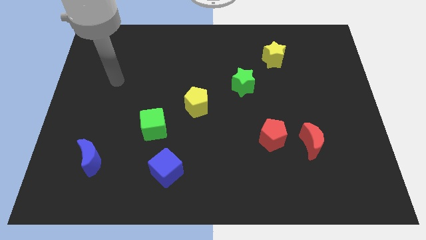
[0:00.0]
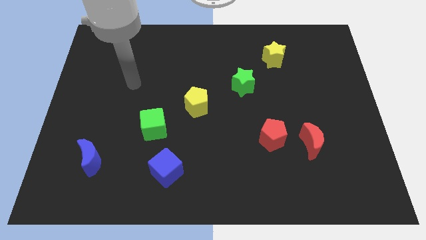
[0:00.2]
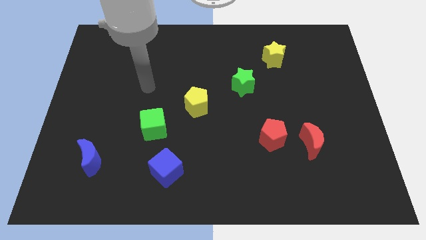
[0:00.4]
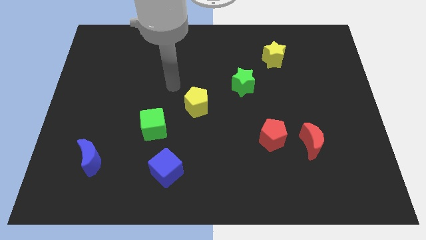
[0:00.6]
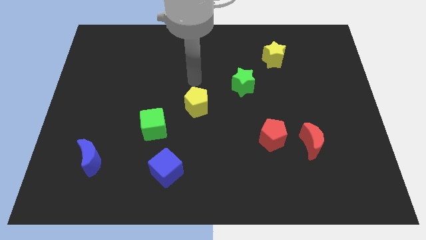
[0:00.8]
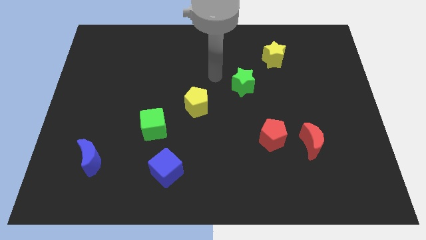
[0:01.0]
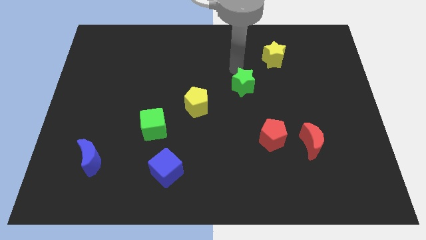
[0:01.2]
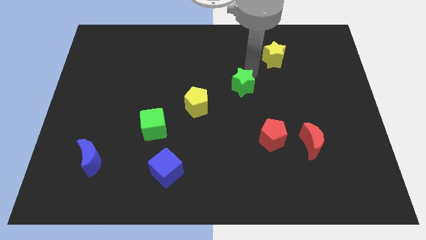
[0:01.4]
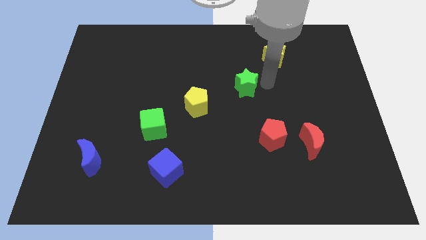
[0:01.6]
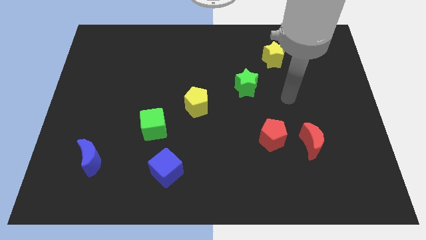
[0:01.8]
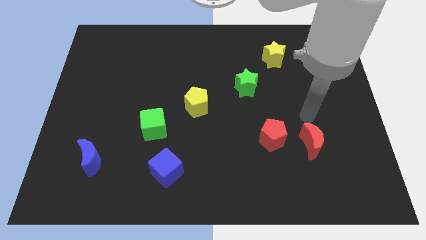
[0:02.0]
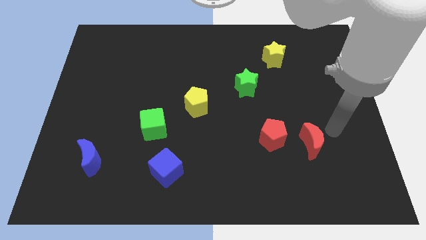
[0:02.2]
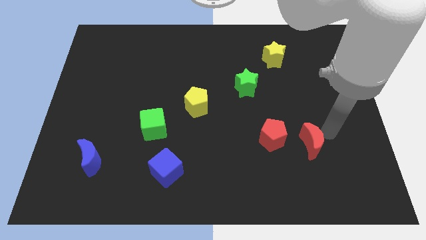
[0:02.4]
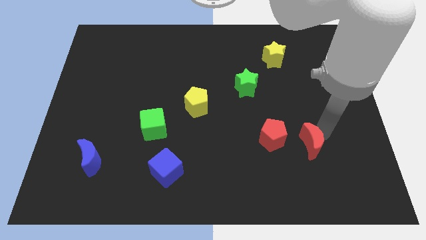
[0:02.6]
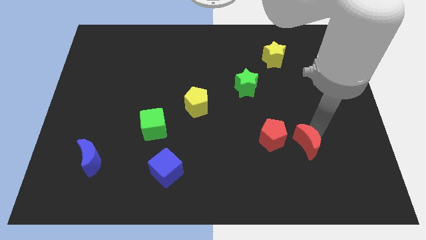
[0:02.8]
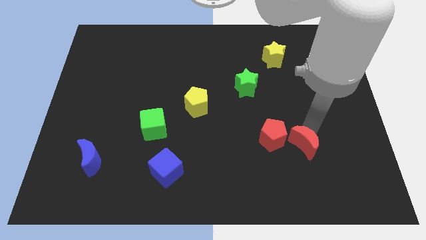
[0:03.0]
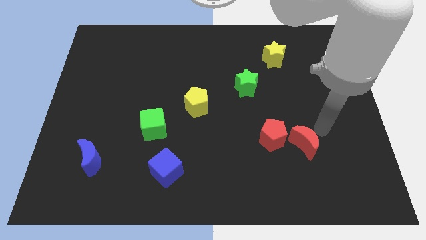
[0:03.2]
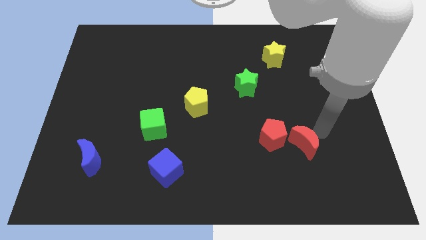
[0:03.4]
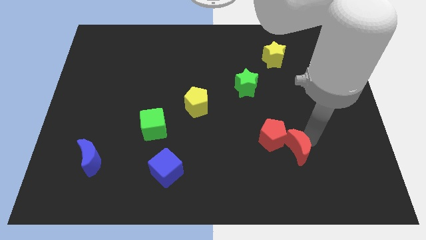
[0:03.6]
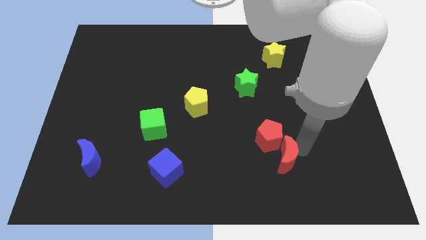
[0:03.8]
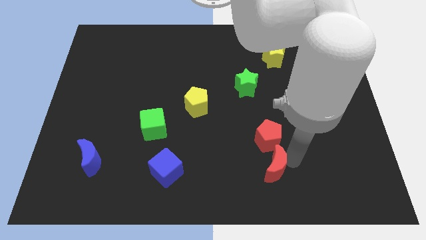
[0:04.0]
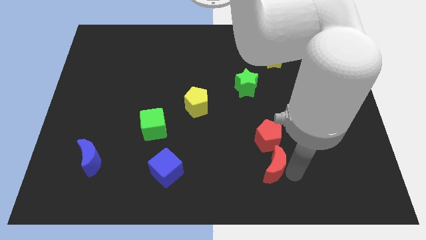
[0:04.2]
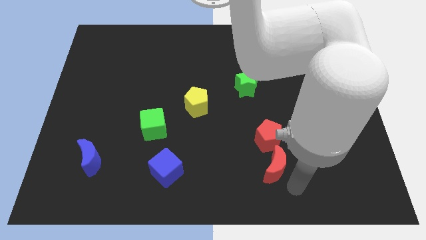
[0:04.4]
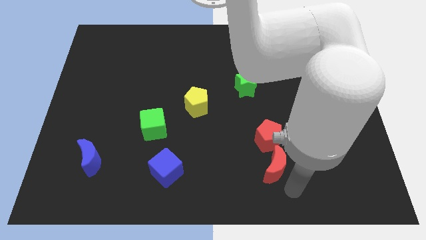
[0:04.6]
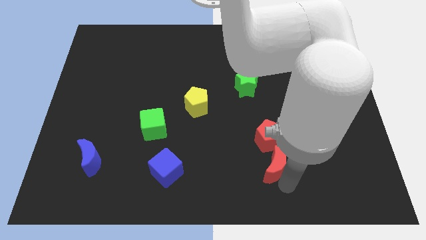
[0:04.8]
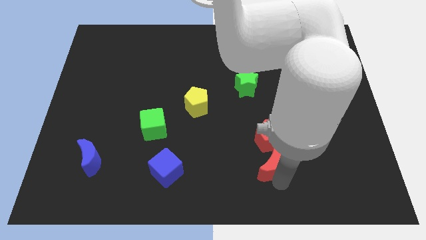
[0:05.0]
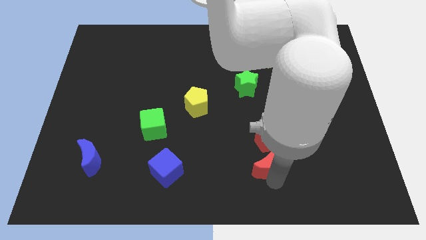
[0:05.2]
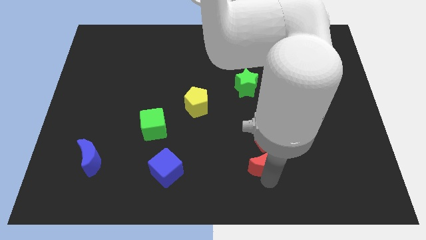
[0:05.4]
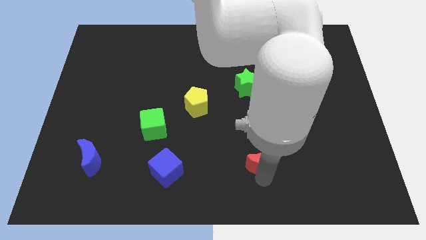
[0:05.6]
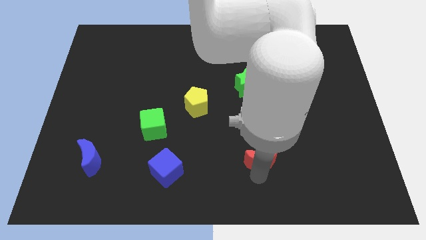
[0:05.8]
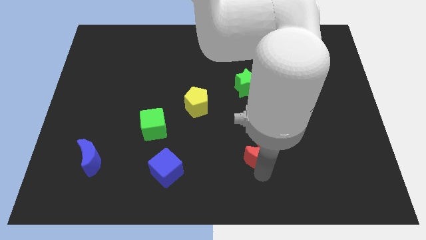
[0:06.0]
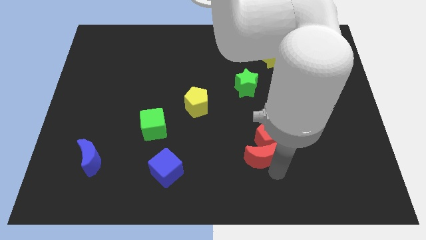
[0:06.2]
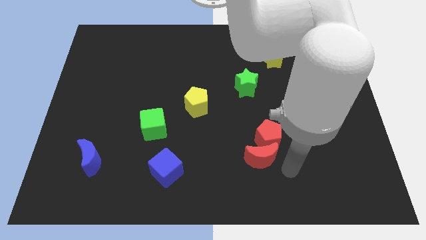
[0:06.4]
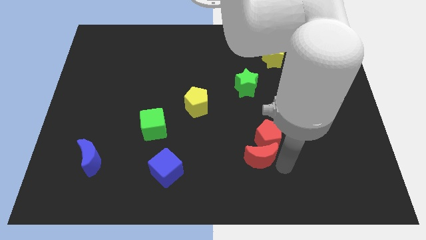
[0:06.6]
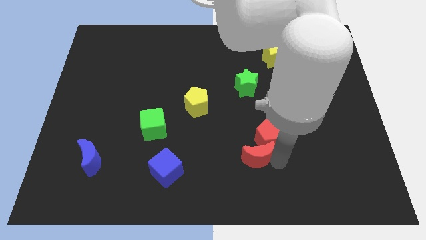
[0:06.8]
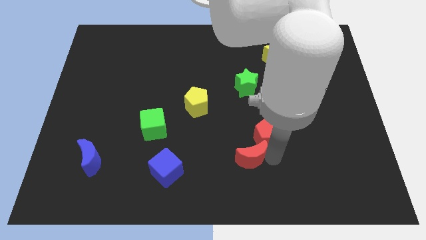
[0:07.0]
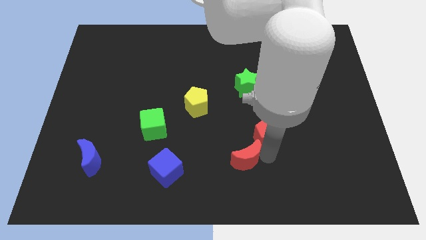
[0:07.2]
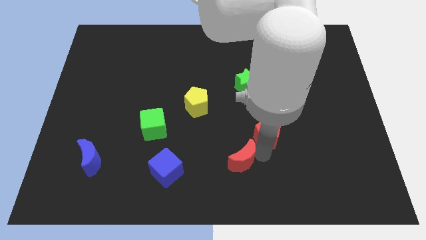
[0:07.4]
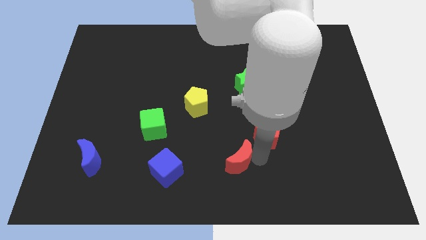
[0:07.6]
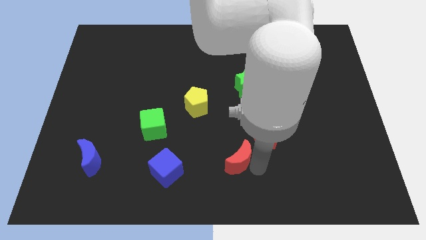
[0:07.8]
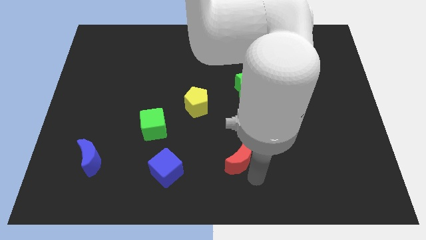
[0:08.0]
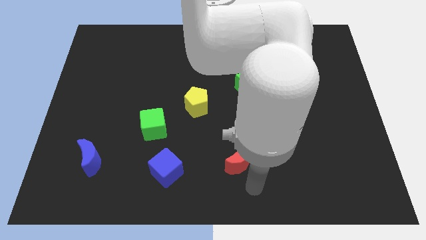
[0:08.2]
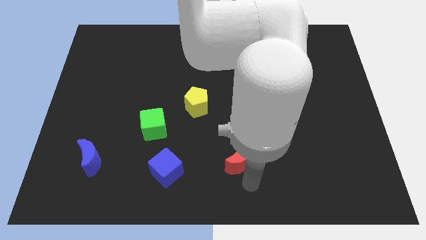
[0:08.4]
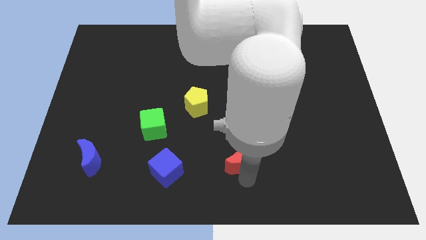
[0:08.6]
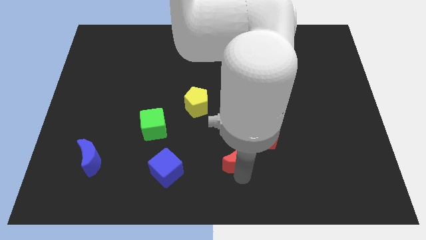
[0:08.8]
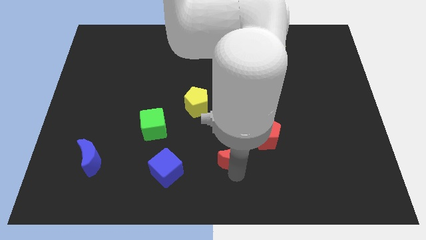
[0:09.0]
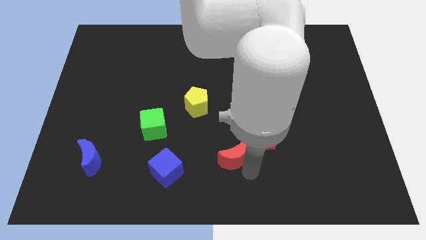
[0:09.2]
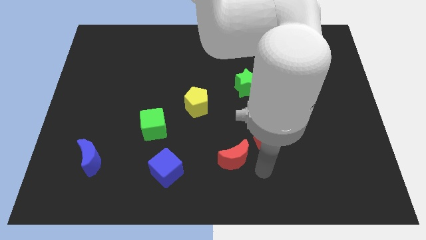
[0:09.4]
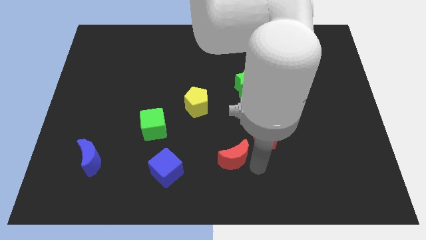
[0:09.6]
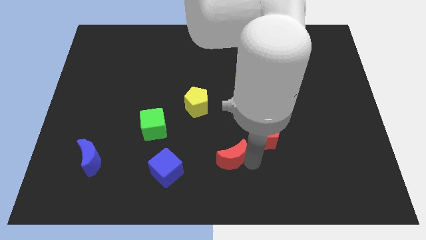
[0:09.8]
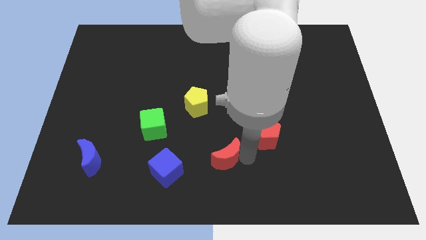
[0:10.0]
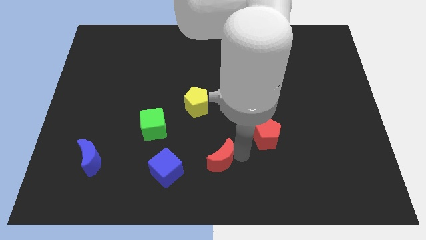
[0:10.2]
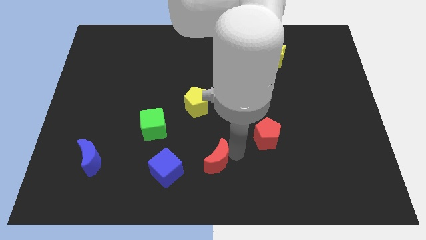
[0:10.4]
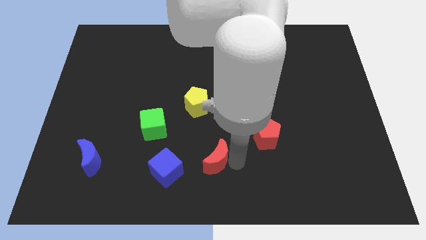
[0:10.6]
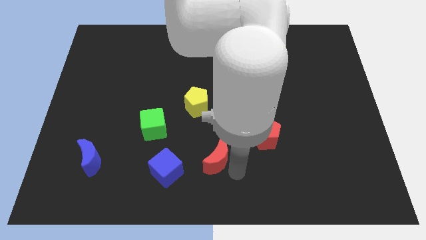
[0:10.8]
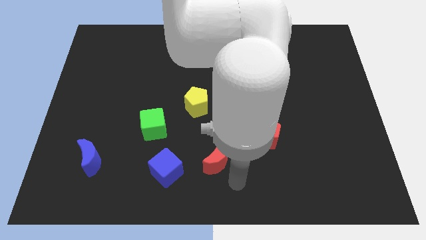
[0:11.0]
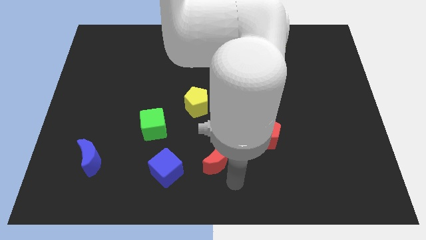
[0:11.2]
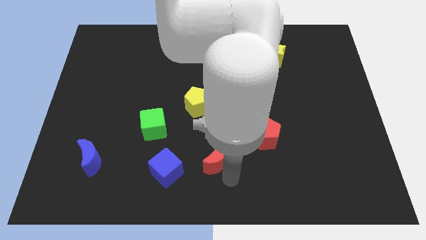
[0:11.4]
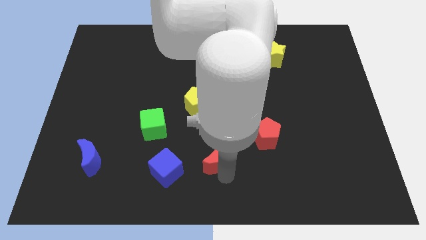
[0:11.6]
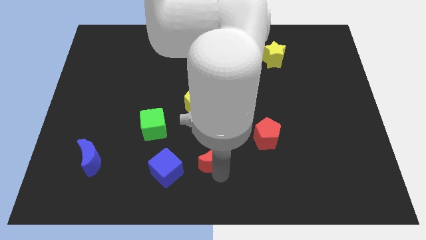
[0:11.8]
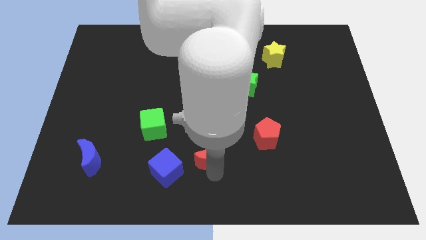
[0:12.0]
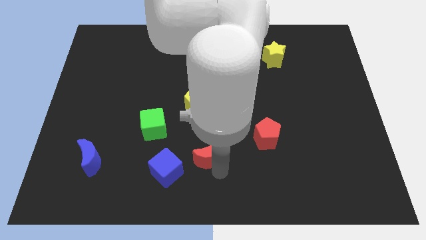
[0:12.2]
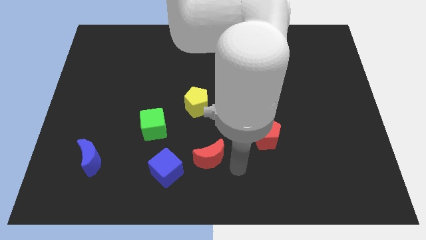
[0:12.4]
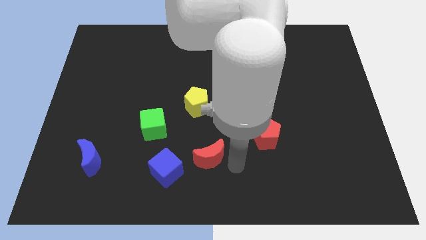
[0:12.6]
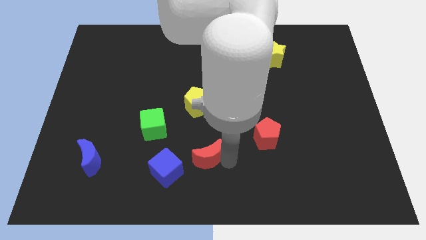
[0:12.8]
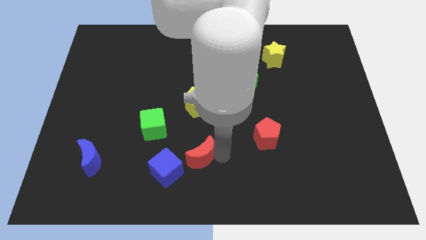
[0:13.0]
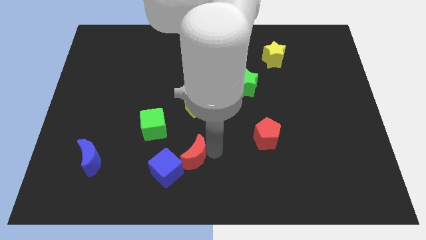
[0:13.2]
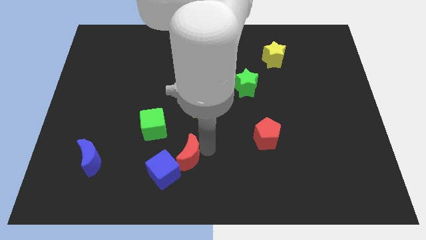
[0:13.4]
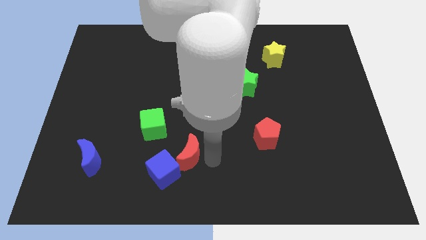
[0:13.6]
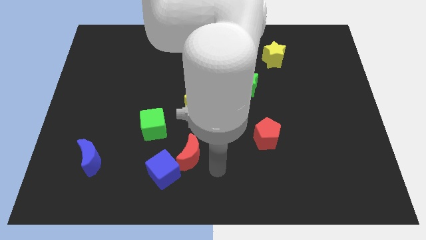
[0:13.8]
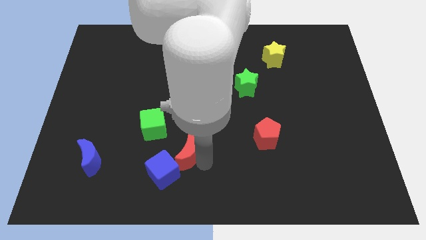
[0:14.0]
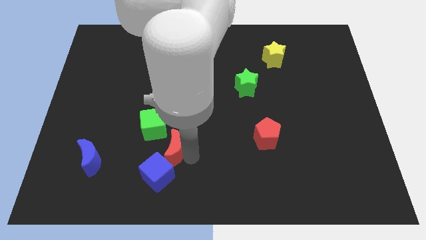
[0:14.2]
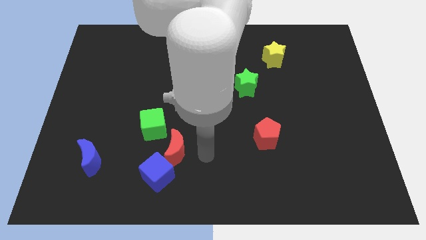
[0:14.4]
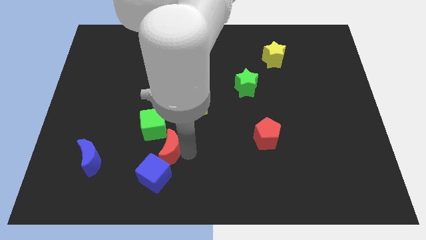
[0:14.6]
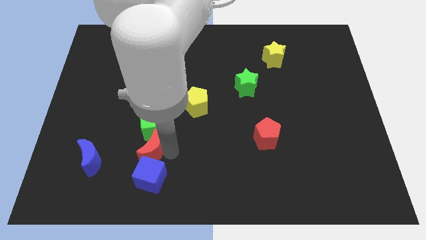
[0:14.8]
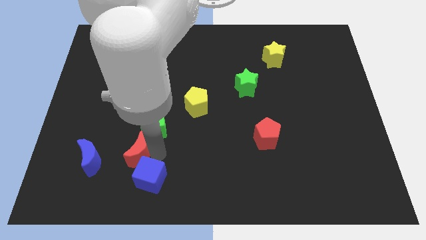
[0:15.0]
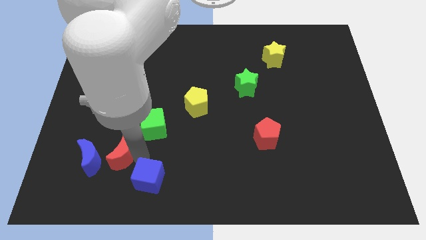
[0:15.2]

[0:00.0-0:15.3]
slide the red moon to the top right of the blue moon
